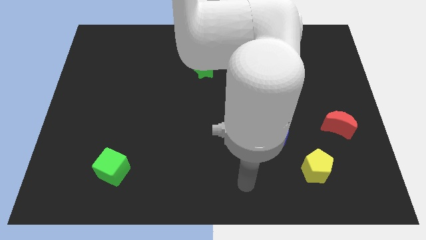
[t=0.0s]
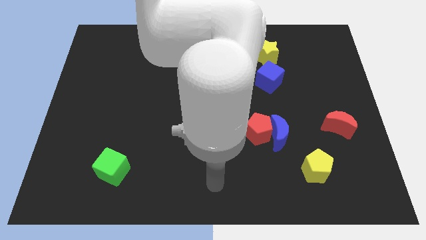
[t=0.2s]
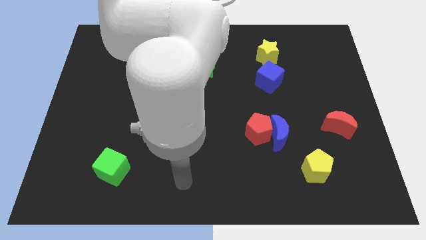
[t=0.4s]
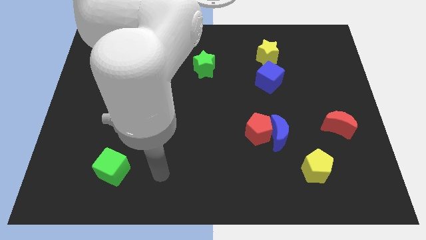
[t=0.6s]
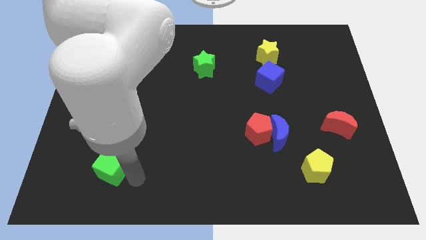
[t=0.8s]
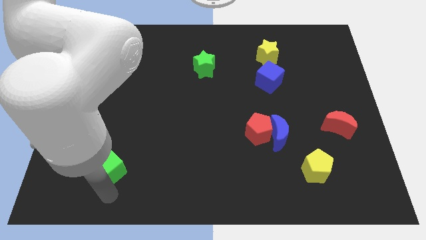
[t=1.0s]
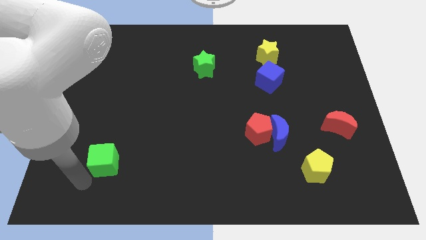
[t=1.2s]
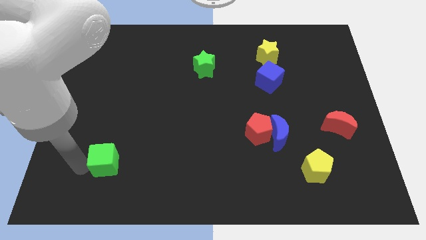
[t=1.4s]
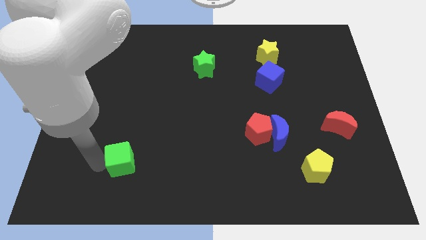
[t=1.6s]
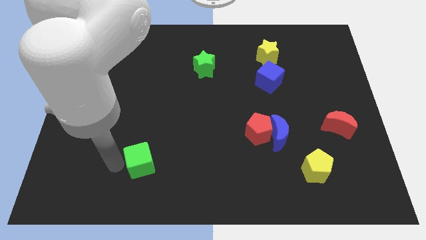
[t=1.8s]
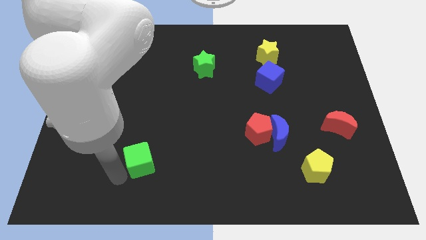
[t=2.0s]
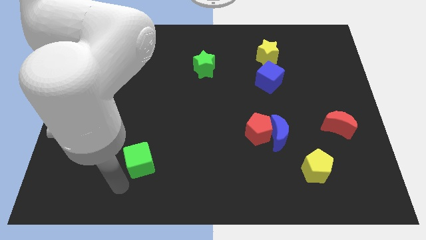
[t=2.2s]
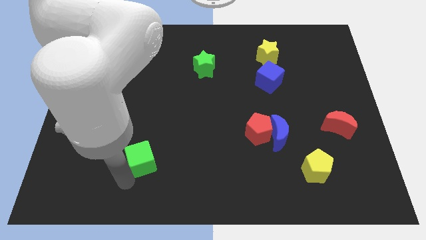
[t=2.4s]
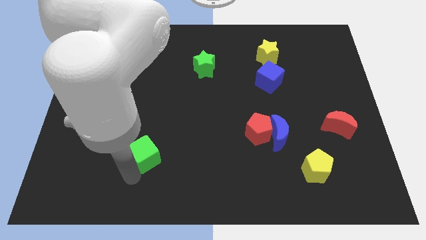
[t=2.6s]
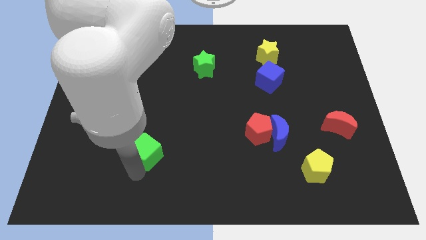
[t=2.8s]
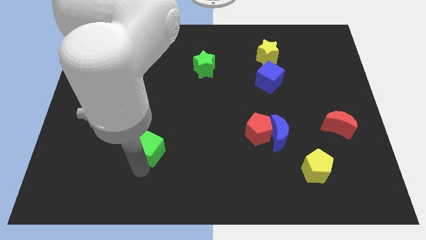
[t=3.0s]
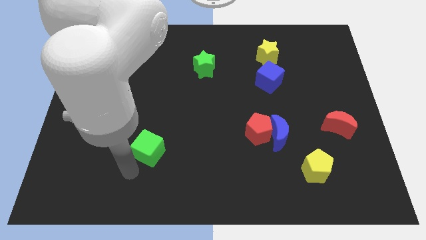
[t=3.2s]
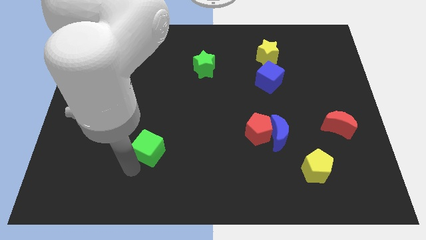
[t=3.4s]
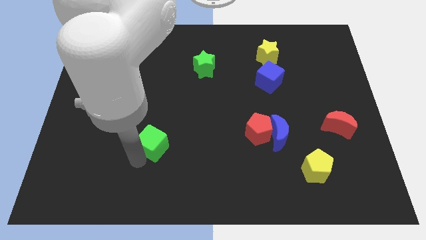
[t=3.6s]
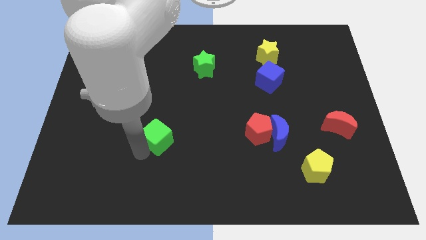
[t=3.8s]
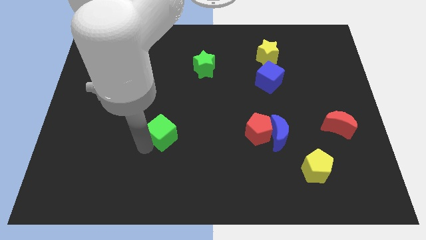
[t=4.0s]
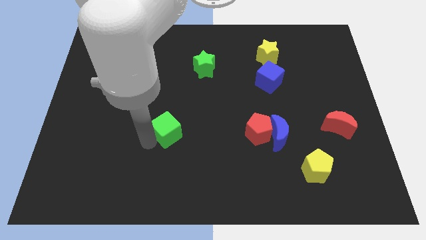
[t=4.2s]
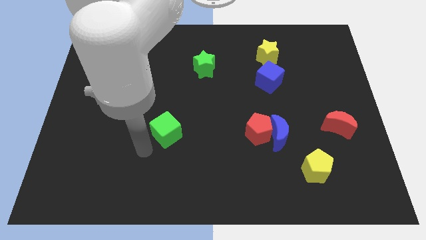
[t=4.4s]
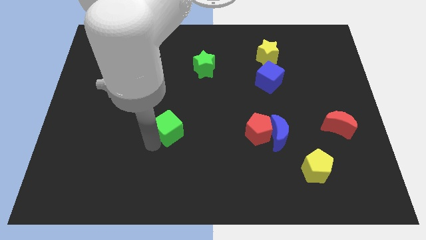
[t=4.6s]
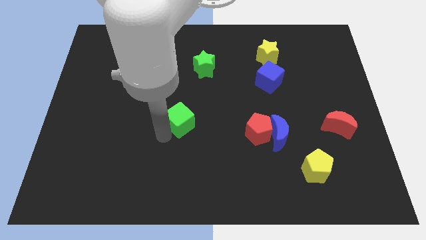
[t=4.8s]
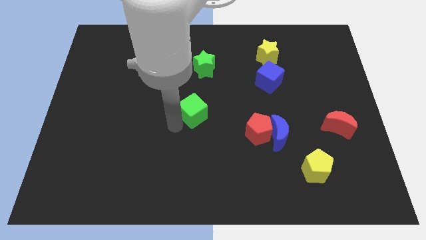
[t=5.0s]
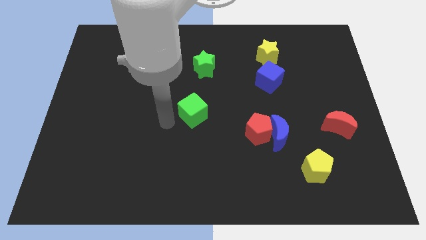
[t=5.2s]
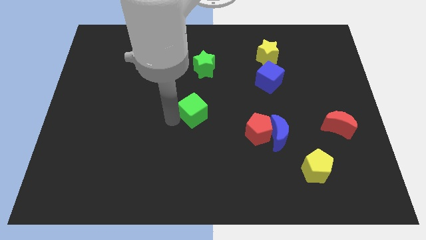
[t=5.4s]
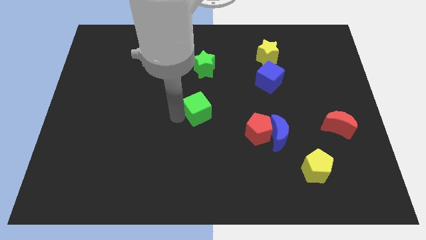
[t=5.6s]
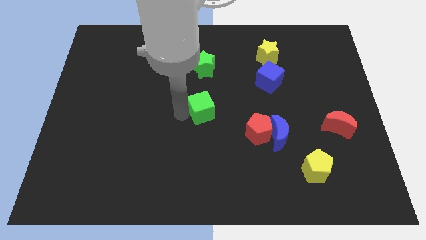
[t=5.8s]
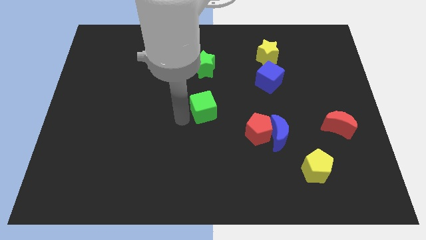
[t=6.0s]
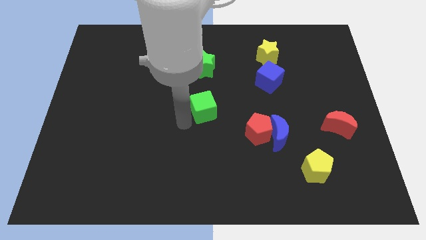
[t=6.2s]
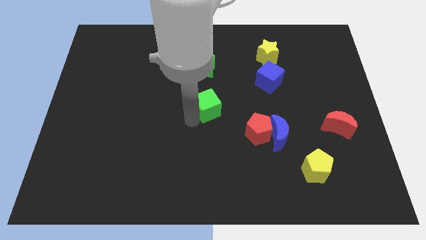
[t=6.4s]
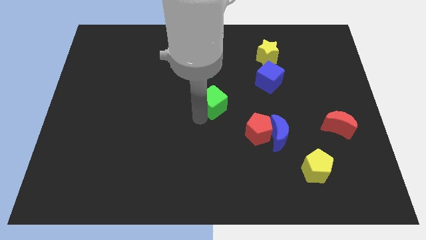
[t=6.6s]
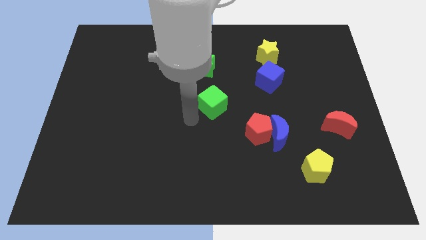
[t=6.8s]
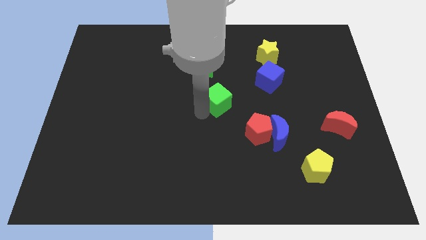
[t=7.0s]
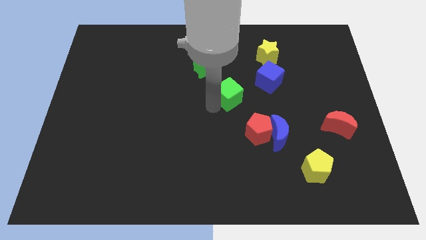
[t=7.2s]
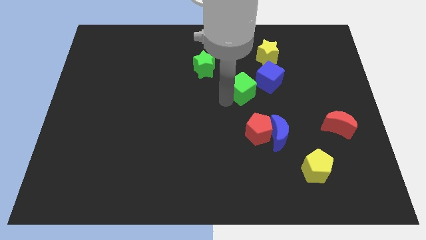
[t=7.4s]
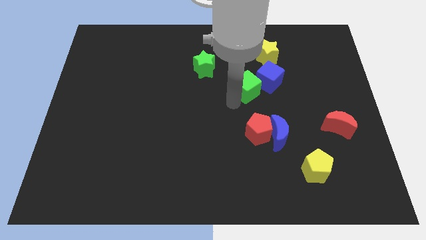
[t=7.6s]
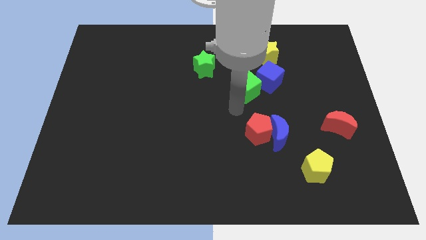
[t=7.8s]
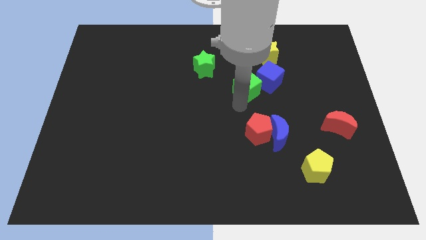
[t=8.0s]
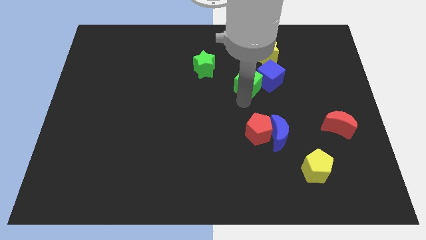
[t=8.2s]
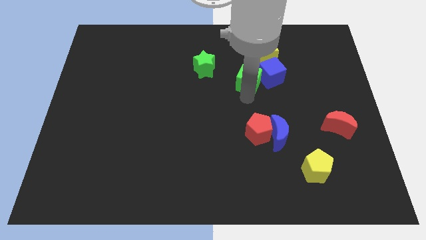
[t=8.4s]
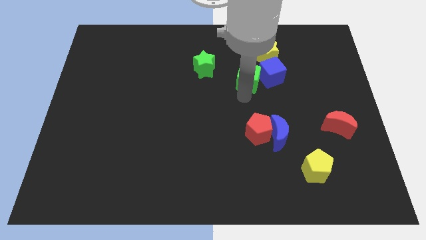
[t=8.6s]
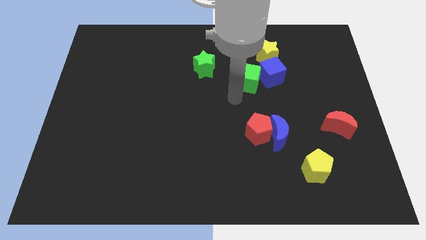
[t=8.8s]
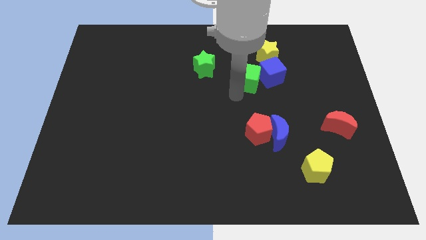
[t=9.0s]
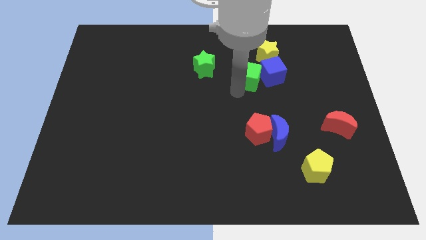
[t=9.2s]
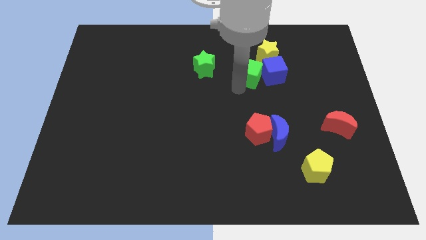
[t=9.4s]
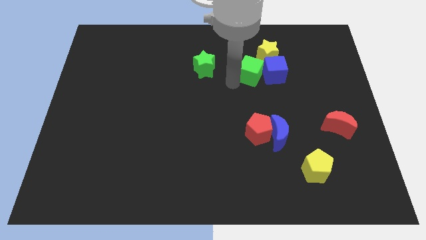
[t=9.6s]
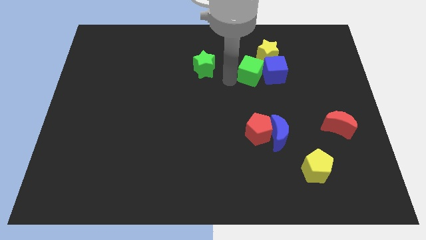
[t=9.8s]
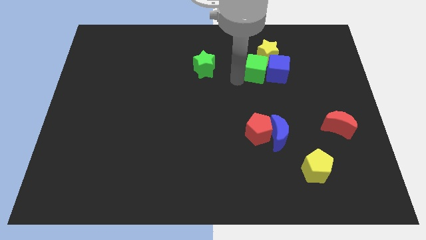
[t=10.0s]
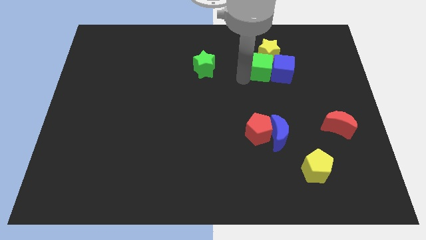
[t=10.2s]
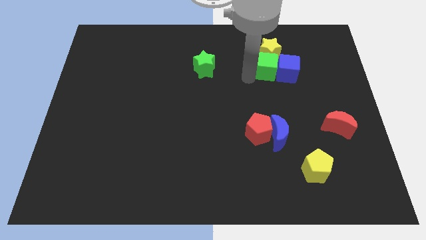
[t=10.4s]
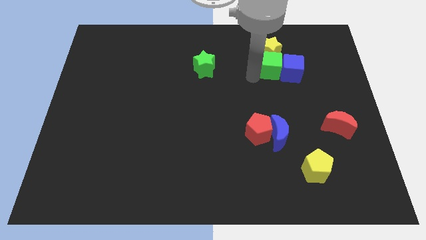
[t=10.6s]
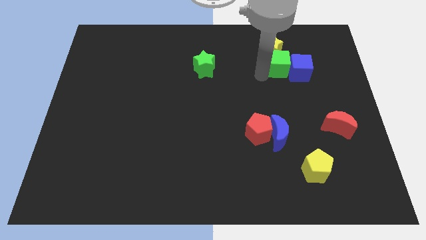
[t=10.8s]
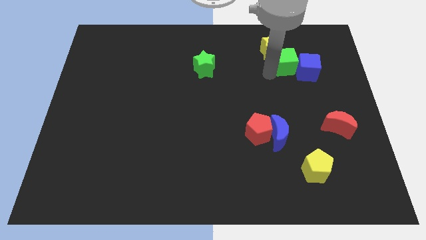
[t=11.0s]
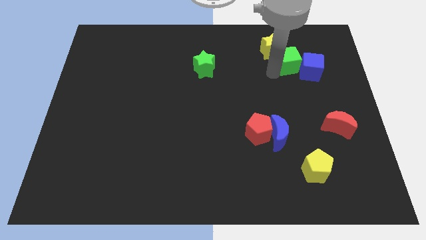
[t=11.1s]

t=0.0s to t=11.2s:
put the green cube right of the yellow star
